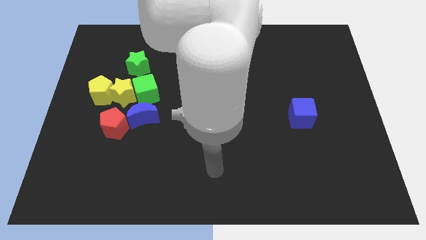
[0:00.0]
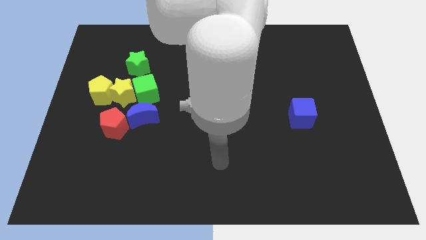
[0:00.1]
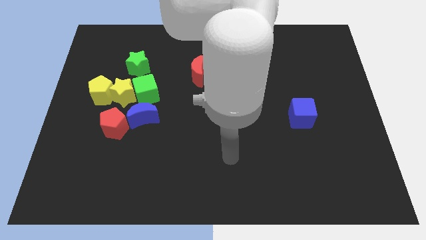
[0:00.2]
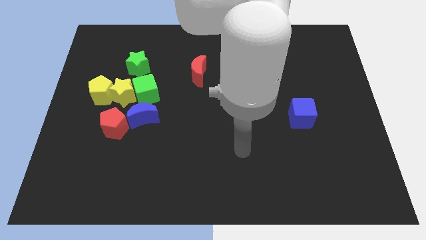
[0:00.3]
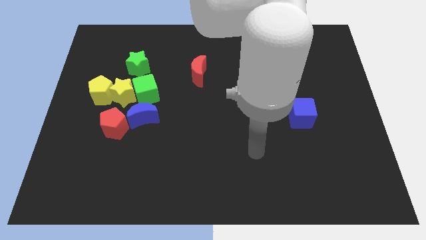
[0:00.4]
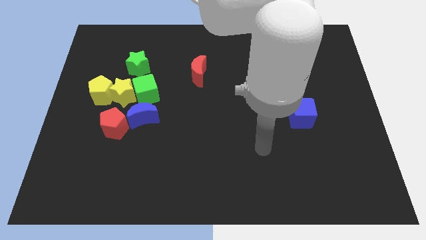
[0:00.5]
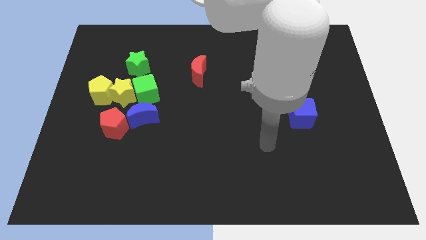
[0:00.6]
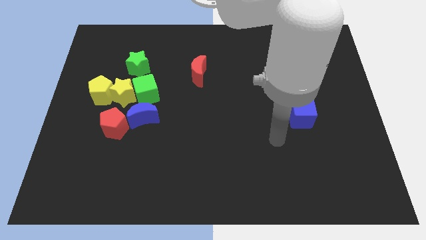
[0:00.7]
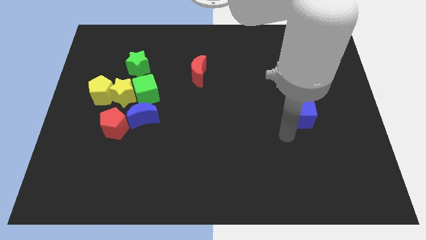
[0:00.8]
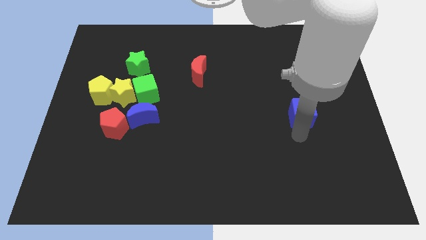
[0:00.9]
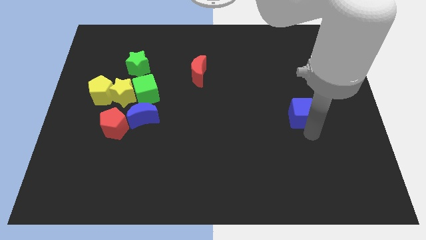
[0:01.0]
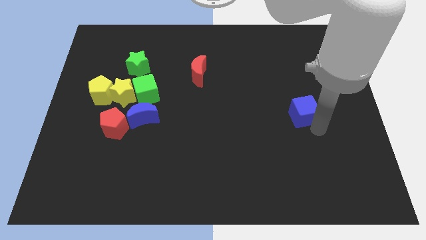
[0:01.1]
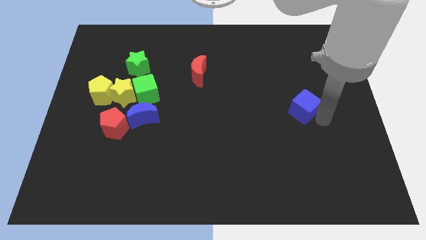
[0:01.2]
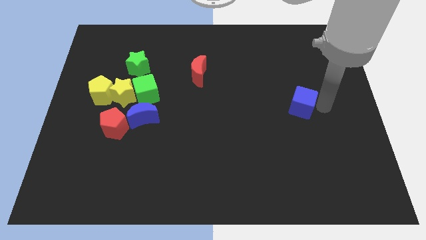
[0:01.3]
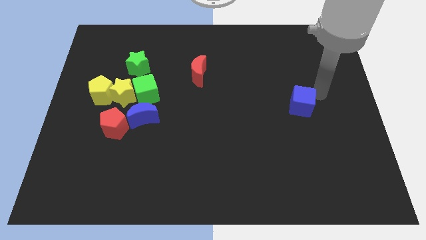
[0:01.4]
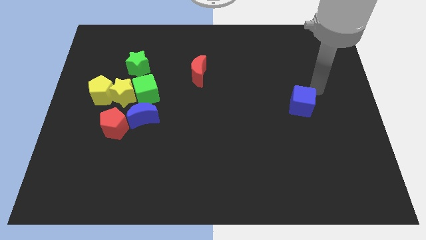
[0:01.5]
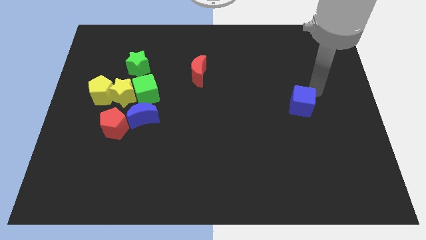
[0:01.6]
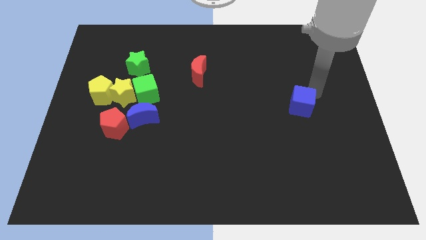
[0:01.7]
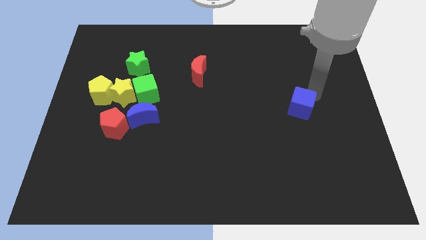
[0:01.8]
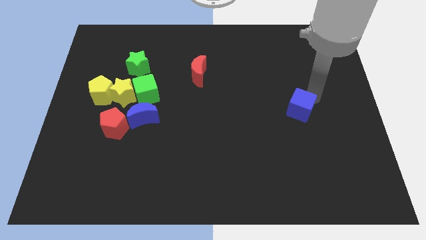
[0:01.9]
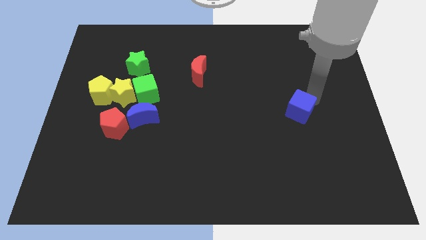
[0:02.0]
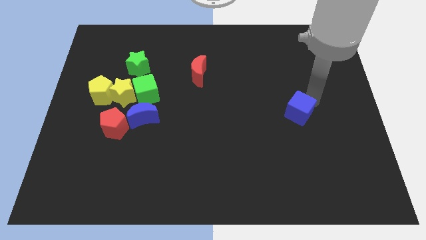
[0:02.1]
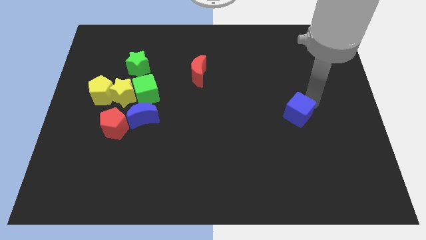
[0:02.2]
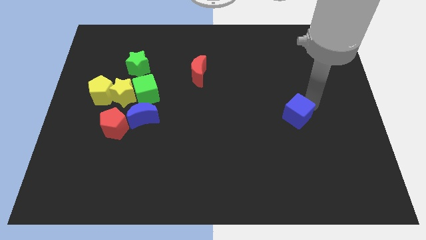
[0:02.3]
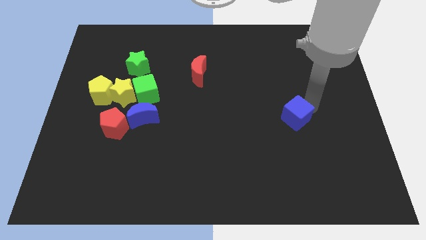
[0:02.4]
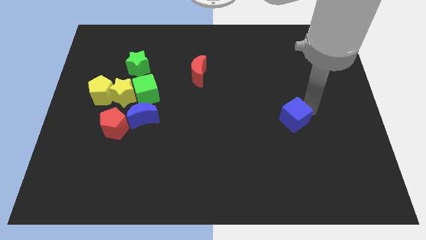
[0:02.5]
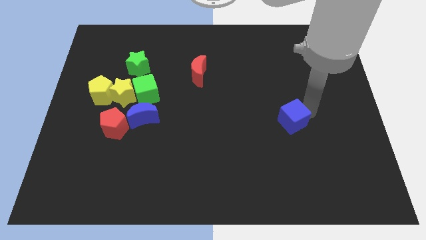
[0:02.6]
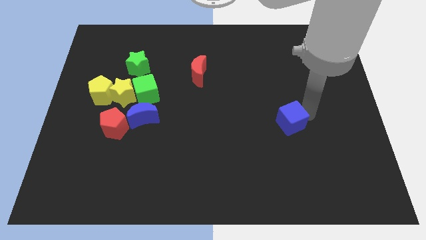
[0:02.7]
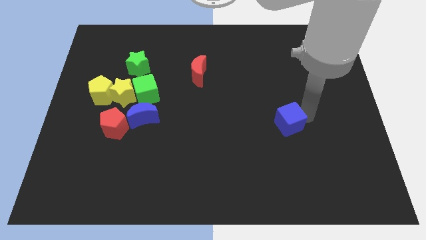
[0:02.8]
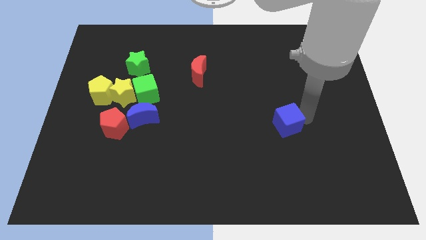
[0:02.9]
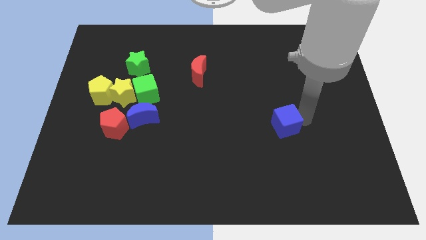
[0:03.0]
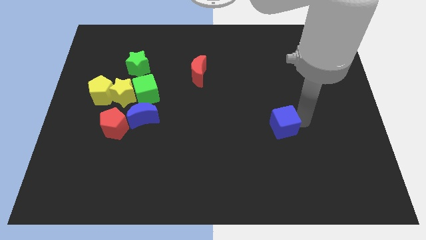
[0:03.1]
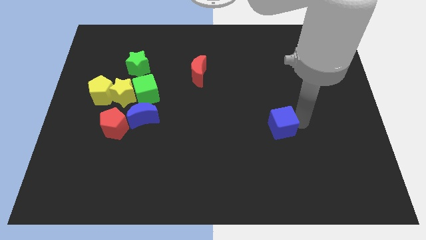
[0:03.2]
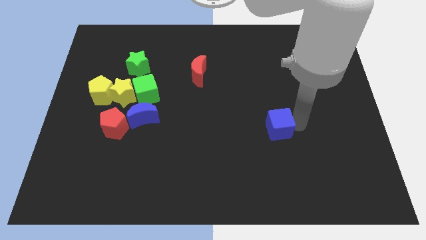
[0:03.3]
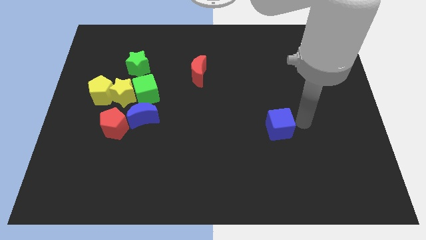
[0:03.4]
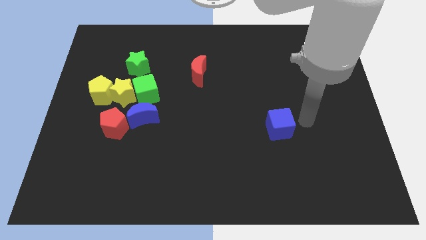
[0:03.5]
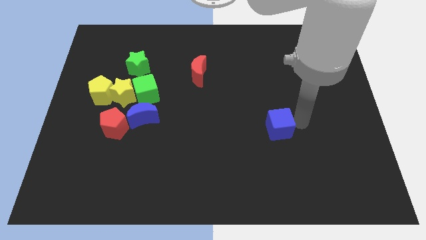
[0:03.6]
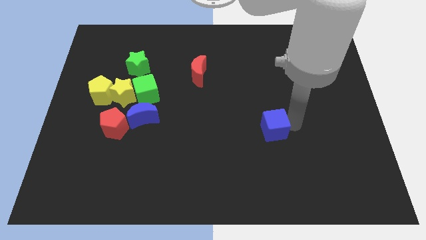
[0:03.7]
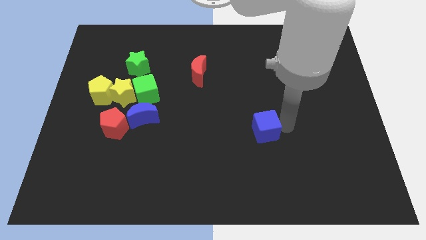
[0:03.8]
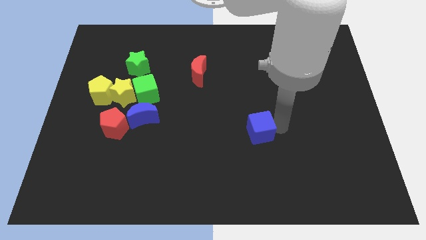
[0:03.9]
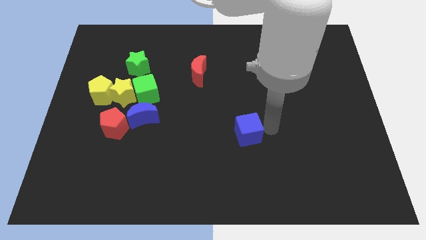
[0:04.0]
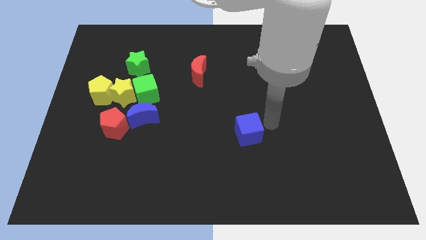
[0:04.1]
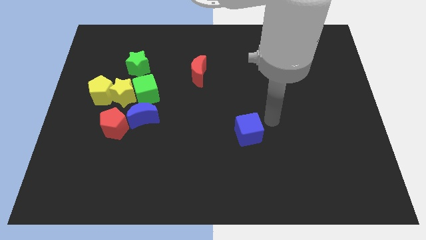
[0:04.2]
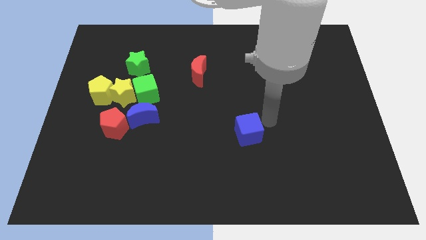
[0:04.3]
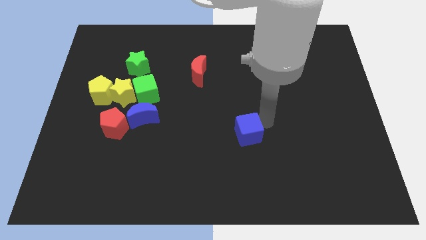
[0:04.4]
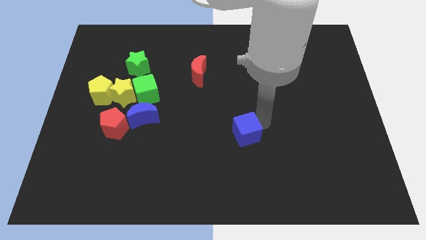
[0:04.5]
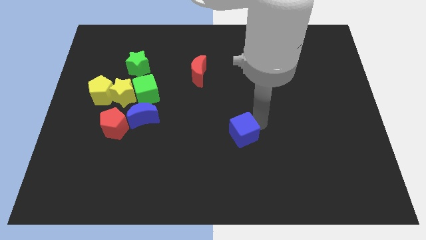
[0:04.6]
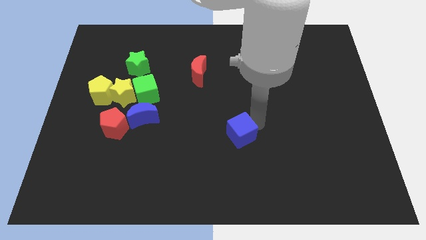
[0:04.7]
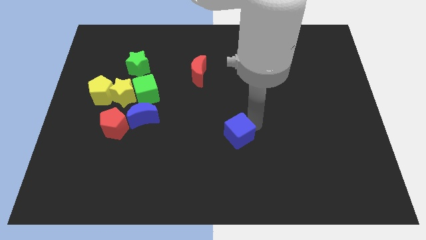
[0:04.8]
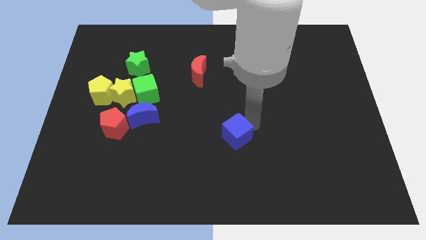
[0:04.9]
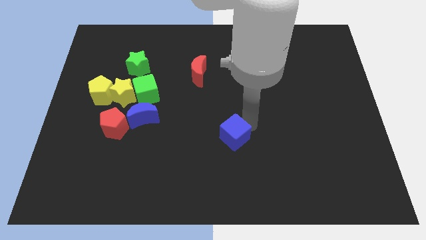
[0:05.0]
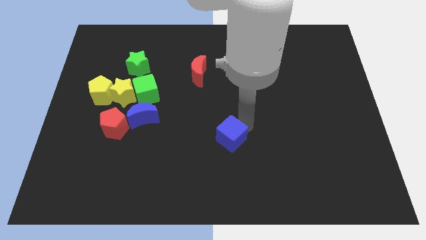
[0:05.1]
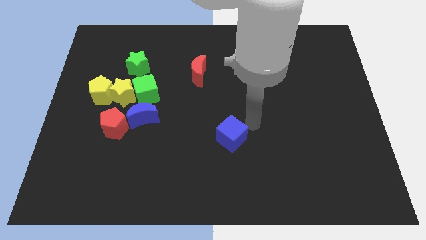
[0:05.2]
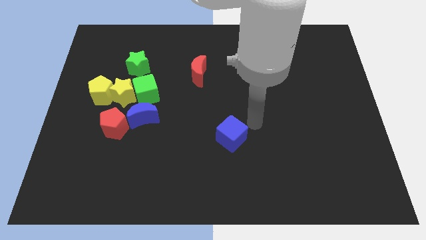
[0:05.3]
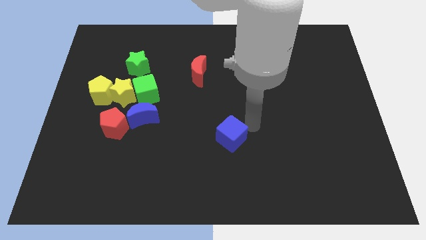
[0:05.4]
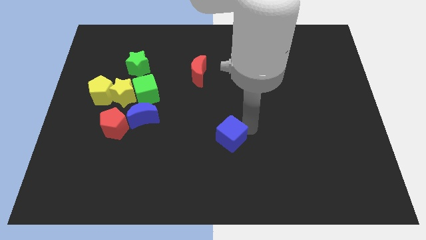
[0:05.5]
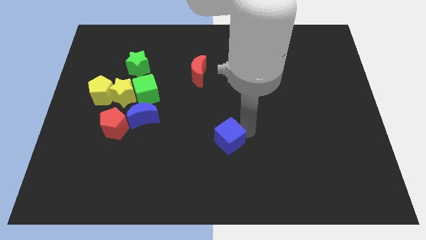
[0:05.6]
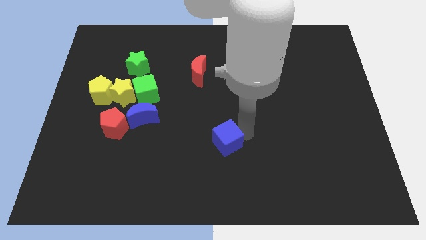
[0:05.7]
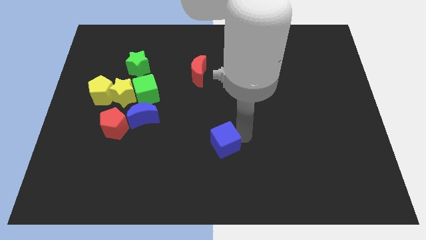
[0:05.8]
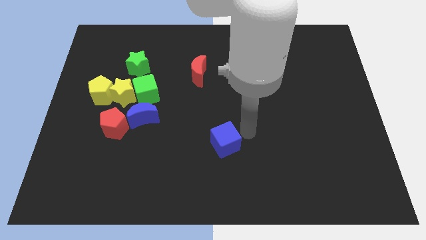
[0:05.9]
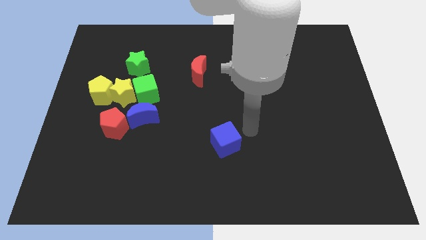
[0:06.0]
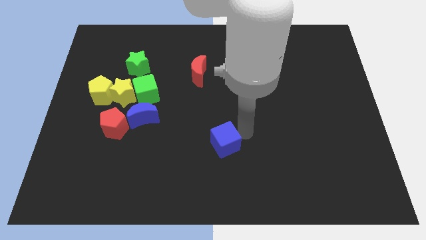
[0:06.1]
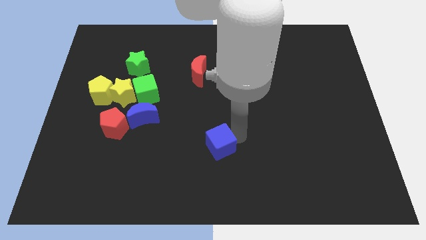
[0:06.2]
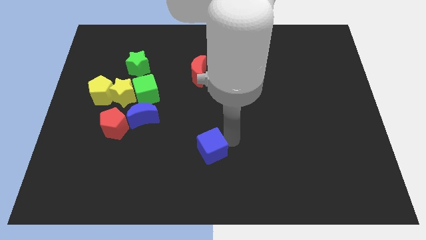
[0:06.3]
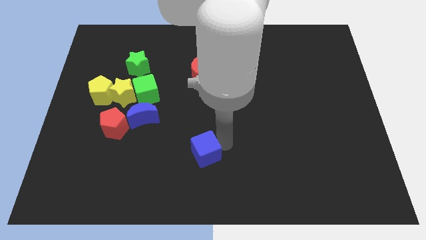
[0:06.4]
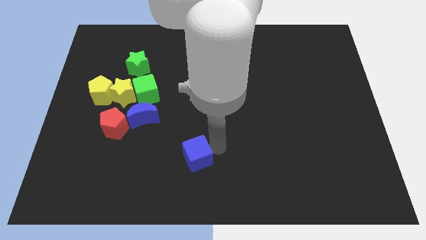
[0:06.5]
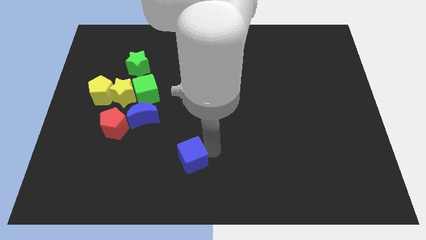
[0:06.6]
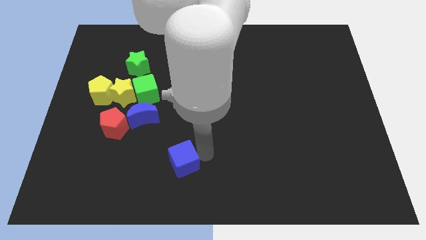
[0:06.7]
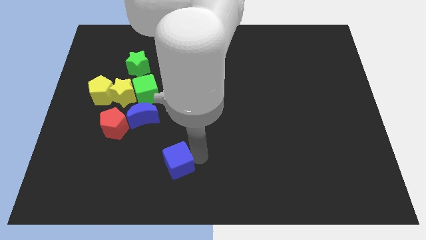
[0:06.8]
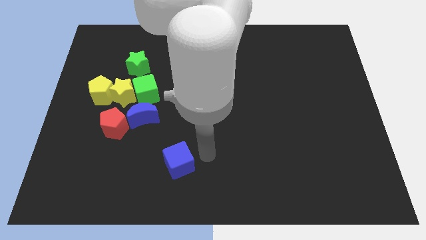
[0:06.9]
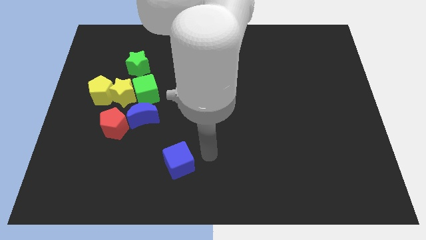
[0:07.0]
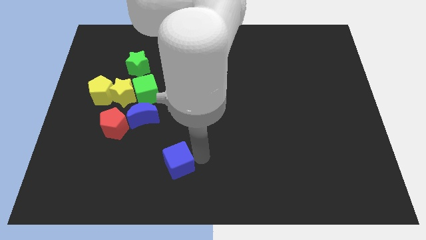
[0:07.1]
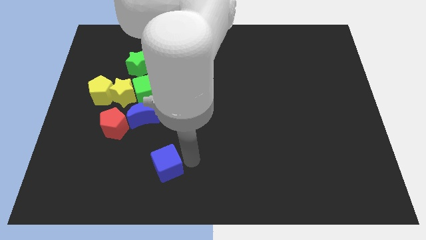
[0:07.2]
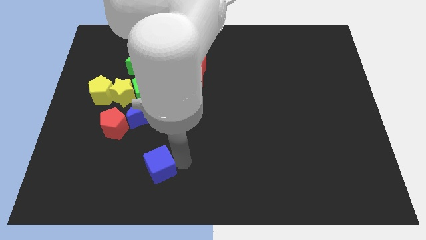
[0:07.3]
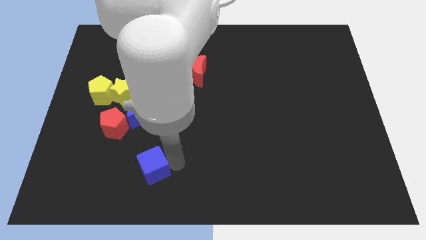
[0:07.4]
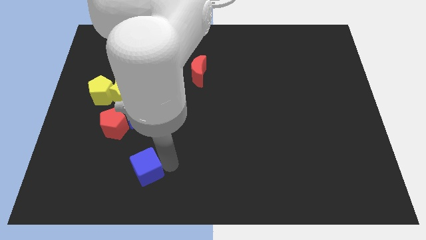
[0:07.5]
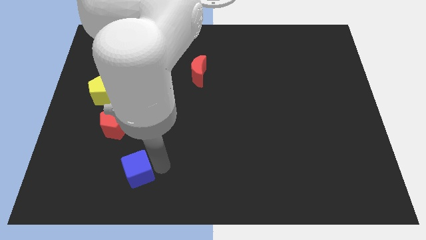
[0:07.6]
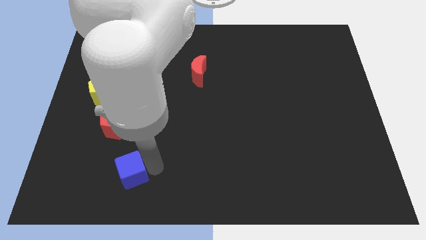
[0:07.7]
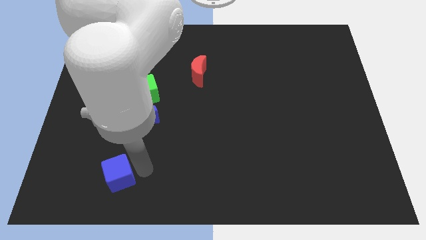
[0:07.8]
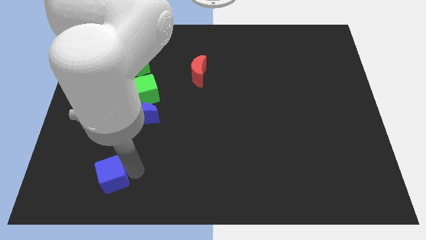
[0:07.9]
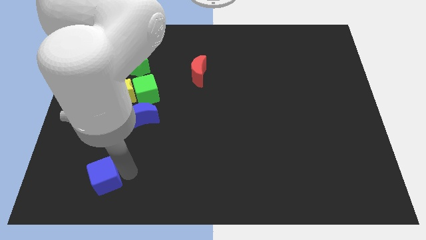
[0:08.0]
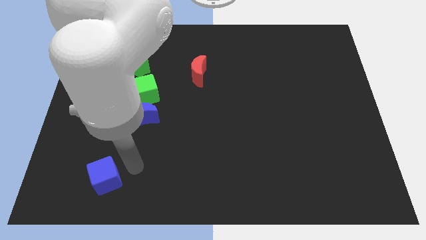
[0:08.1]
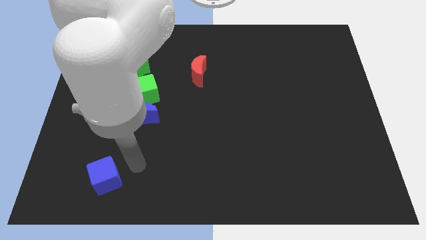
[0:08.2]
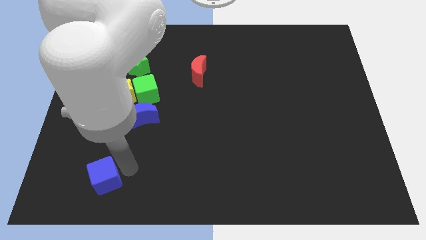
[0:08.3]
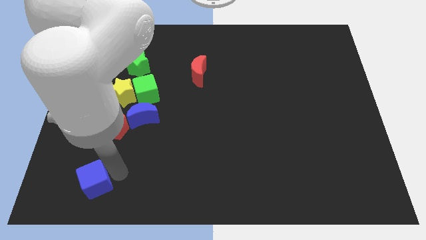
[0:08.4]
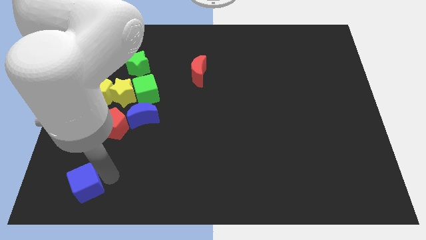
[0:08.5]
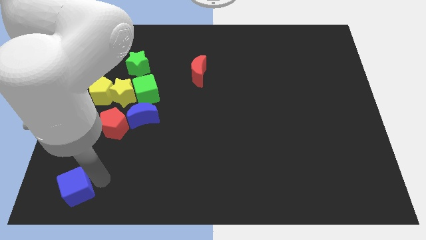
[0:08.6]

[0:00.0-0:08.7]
move the blue cube to the bottom left
